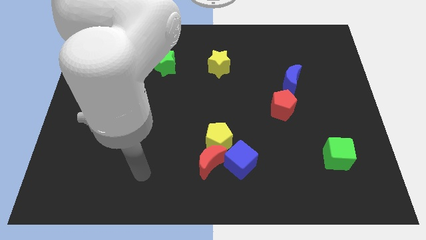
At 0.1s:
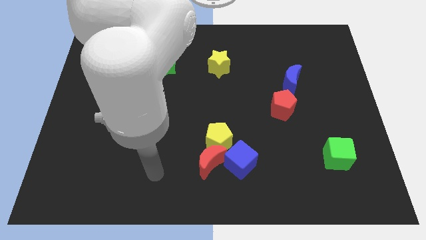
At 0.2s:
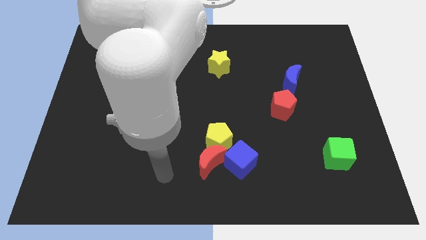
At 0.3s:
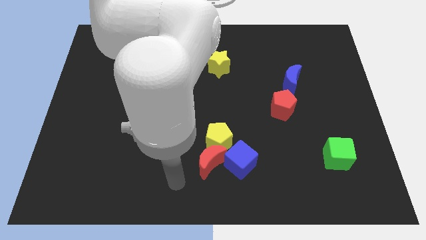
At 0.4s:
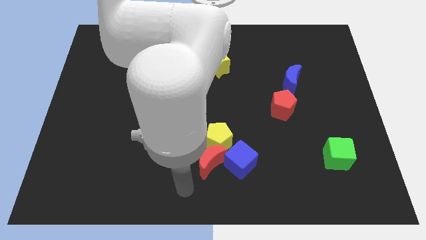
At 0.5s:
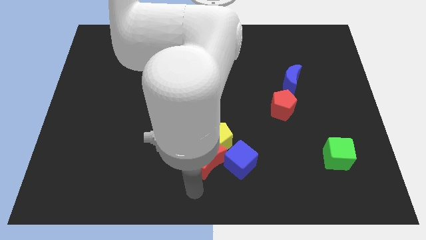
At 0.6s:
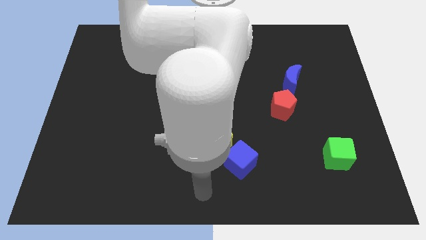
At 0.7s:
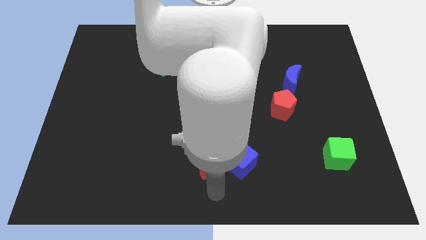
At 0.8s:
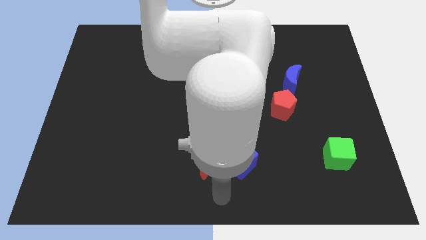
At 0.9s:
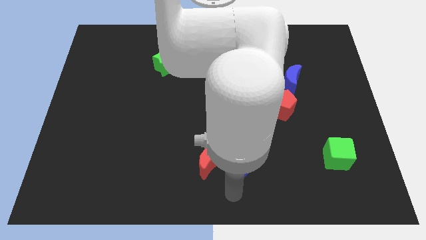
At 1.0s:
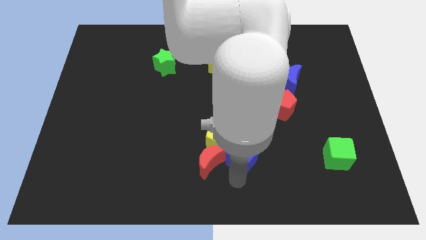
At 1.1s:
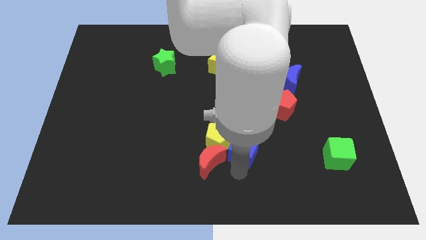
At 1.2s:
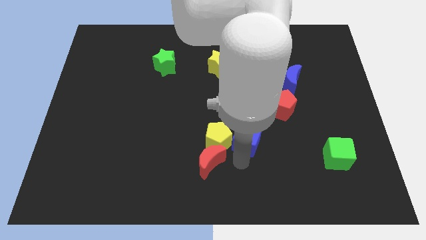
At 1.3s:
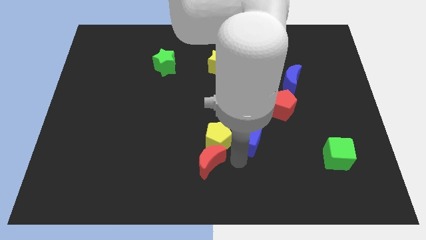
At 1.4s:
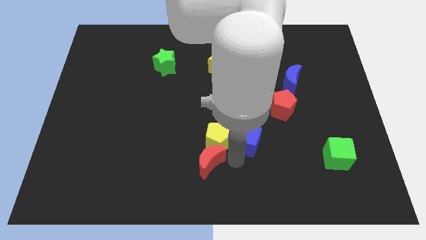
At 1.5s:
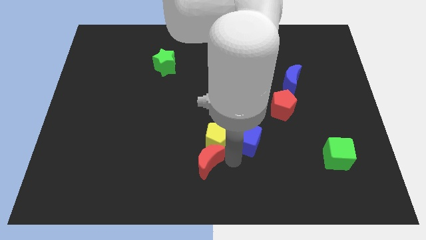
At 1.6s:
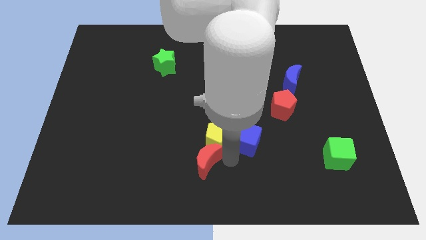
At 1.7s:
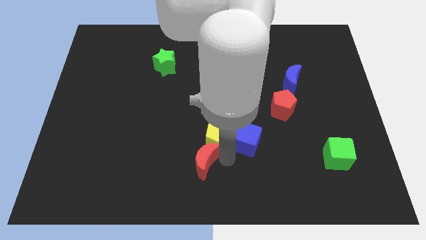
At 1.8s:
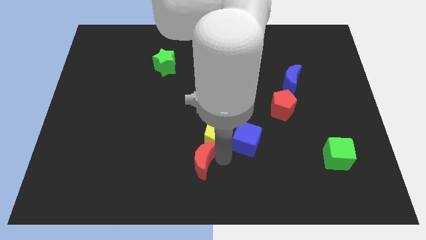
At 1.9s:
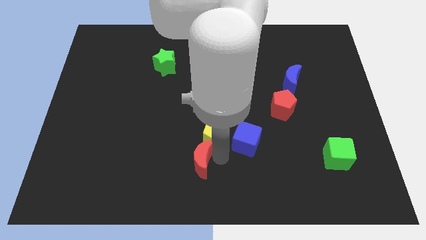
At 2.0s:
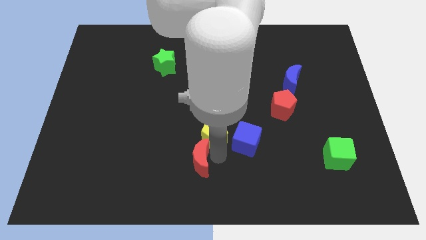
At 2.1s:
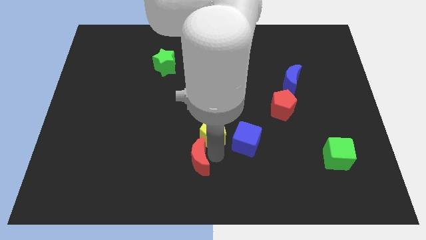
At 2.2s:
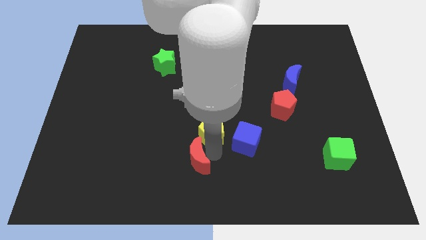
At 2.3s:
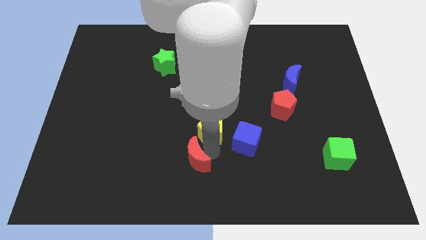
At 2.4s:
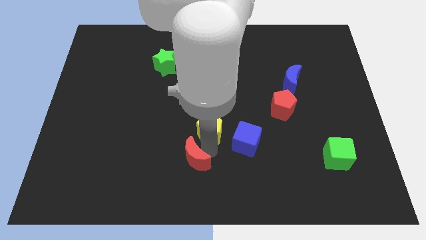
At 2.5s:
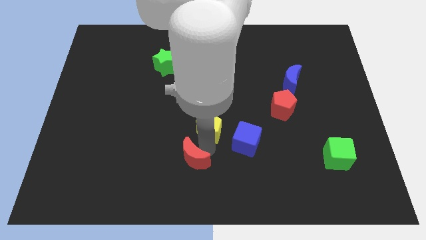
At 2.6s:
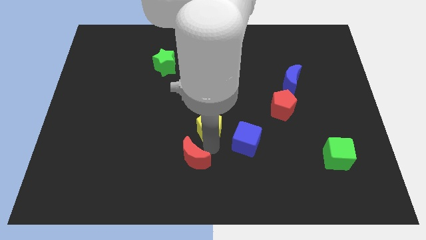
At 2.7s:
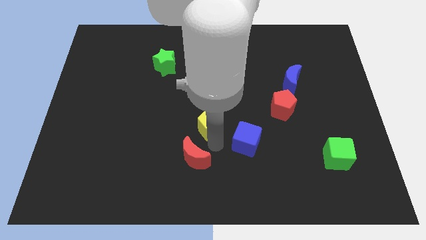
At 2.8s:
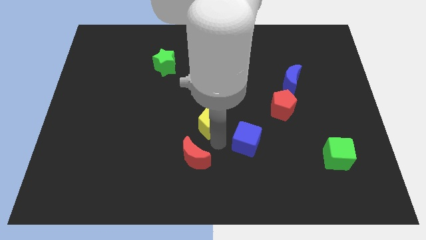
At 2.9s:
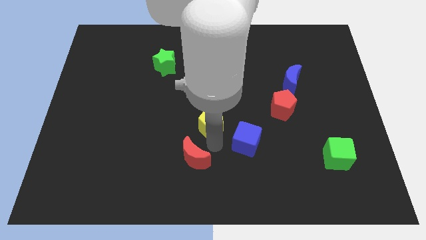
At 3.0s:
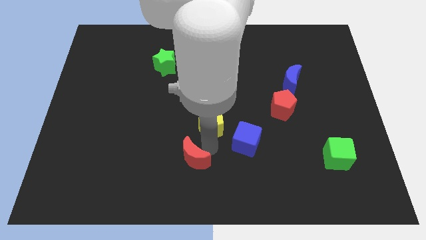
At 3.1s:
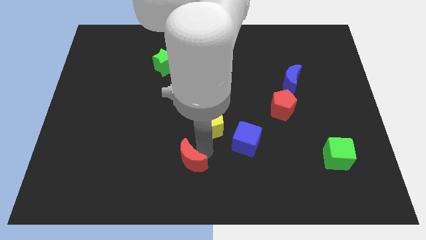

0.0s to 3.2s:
separate the red moon from the yellow pentagon and blue cube

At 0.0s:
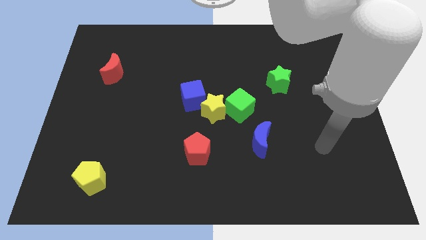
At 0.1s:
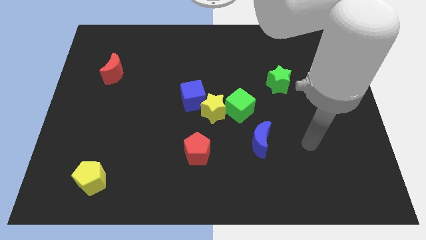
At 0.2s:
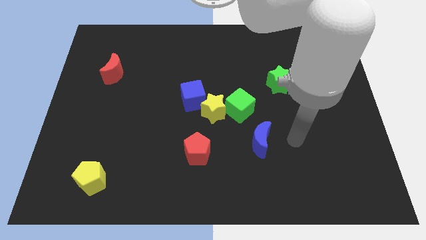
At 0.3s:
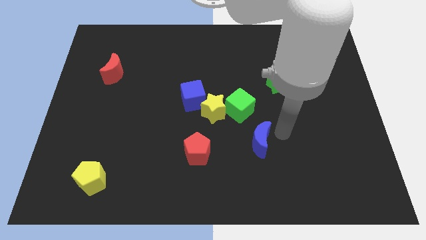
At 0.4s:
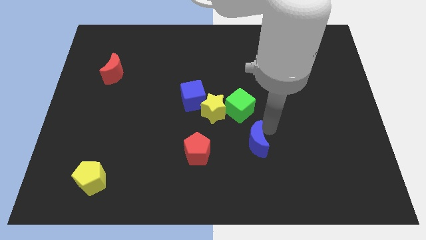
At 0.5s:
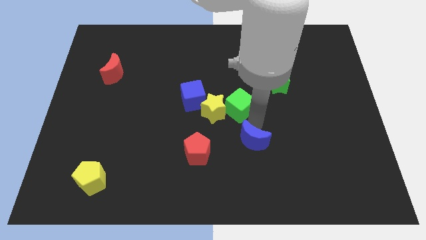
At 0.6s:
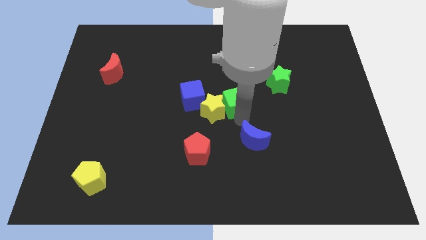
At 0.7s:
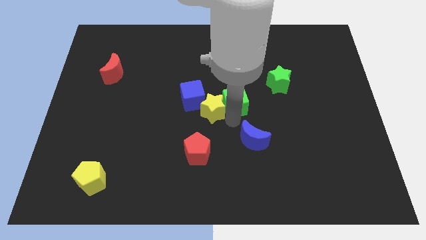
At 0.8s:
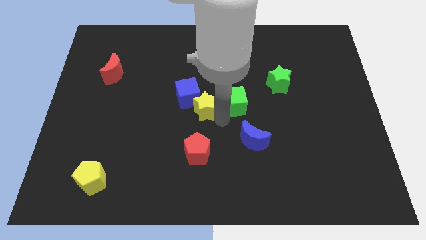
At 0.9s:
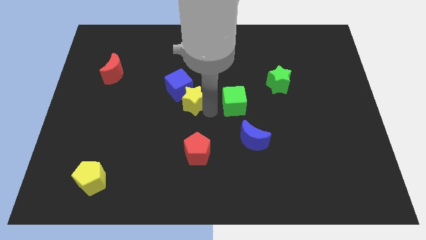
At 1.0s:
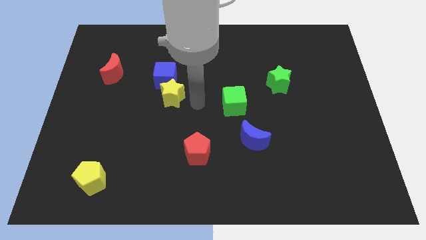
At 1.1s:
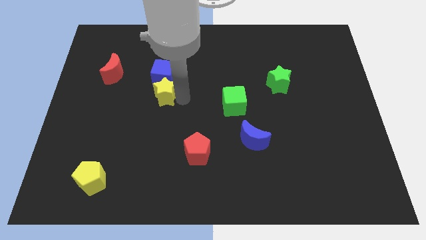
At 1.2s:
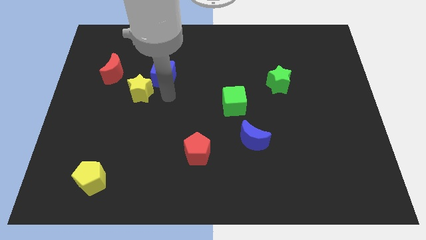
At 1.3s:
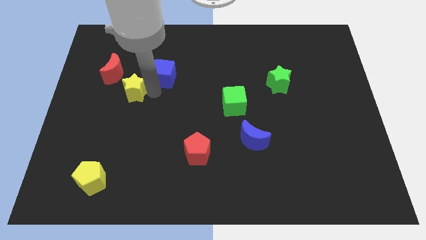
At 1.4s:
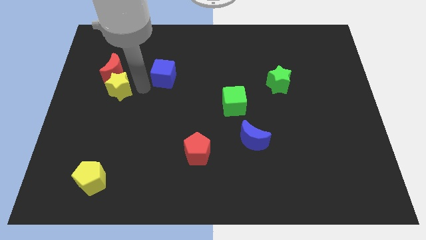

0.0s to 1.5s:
separate the blue cube from the yellow star

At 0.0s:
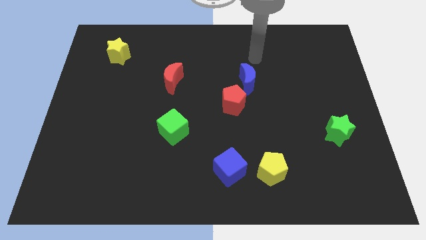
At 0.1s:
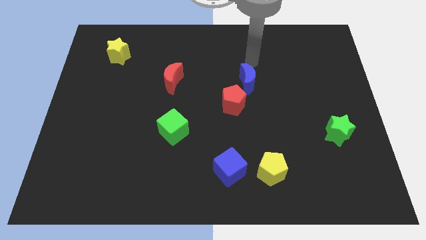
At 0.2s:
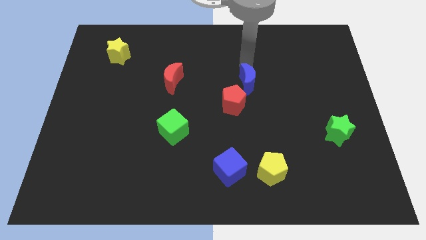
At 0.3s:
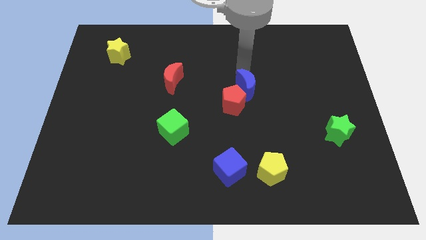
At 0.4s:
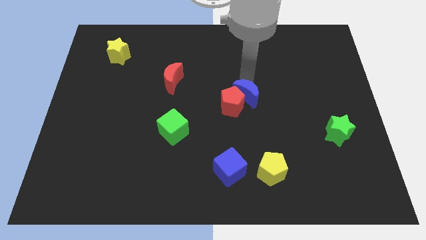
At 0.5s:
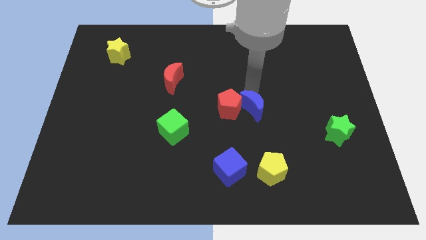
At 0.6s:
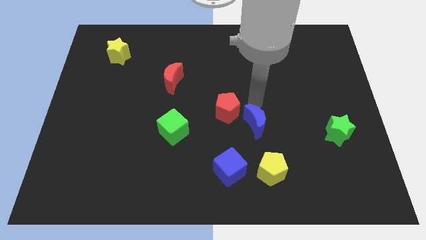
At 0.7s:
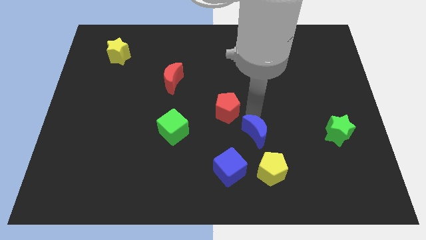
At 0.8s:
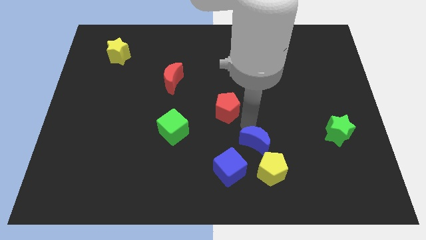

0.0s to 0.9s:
pull the red pentagon apart from the blue moon

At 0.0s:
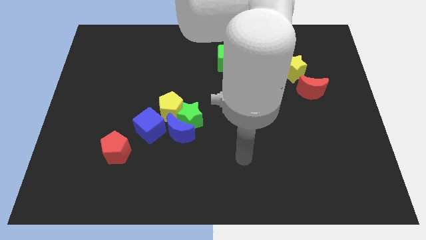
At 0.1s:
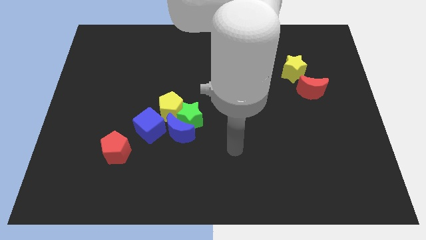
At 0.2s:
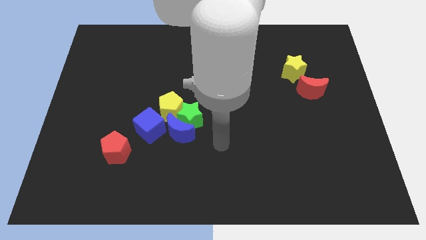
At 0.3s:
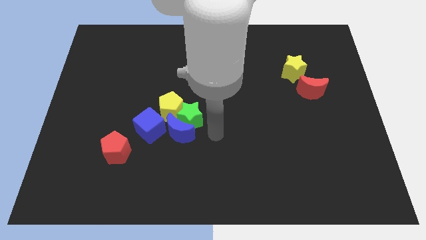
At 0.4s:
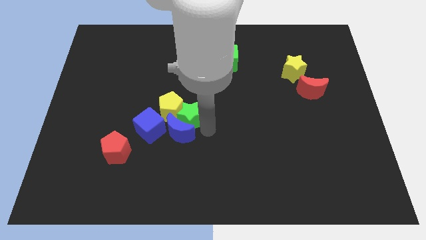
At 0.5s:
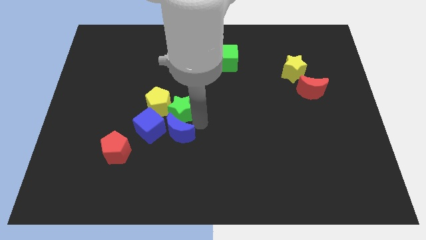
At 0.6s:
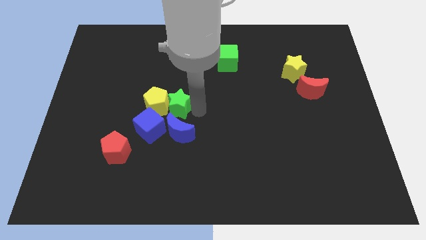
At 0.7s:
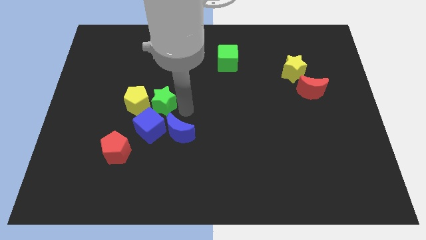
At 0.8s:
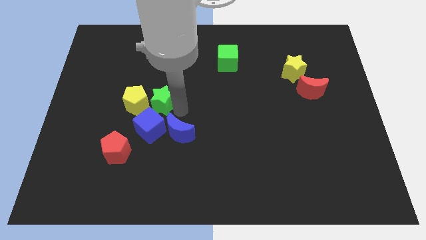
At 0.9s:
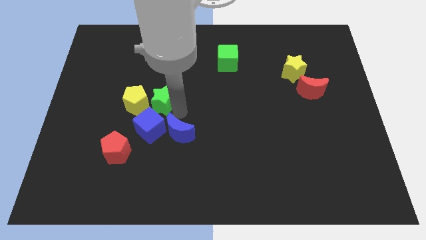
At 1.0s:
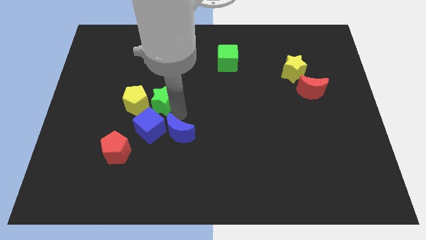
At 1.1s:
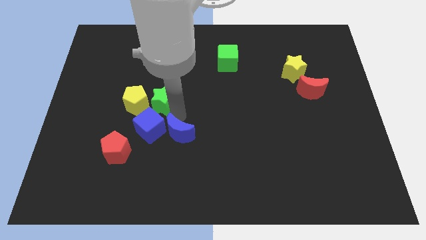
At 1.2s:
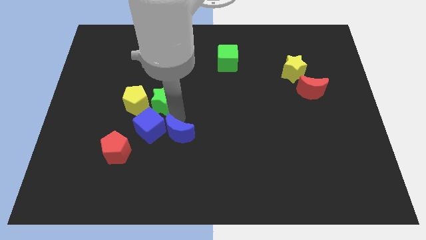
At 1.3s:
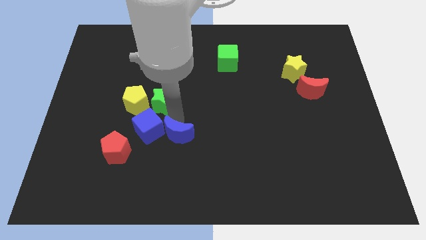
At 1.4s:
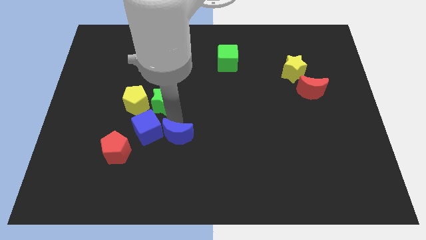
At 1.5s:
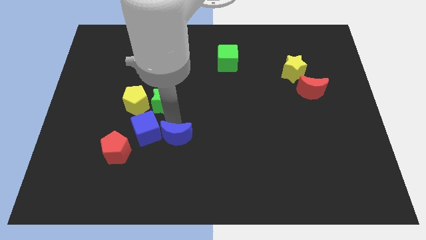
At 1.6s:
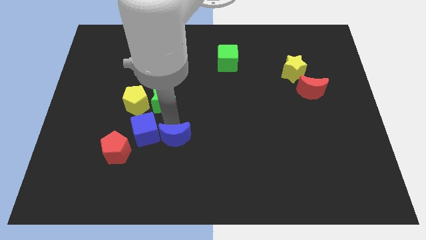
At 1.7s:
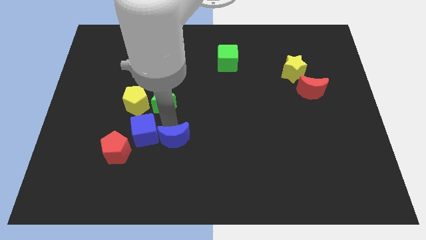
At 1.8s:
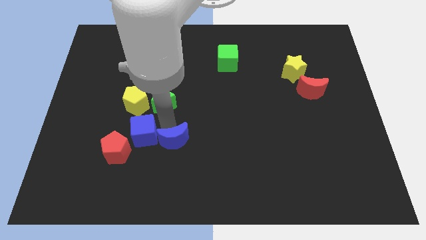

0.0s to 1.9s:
pull the blue moon apart from the group of blocks

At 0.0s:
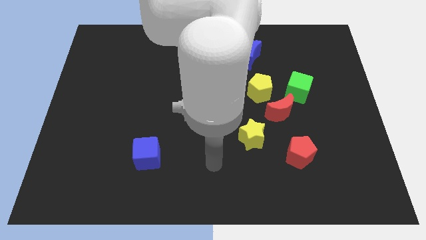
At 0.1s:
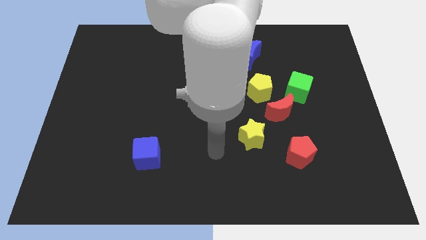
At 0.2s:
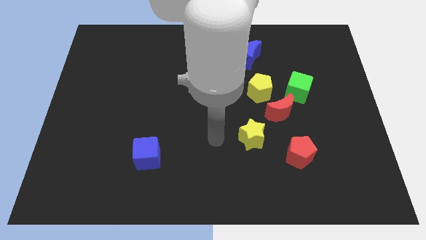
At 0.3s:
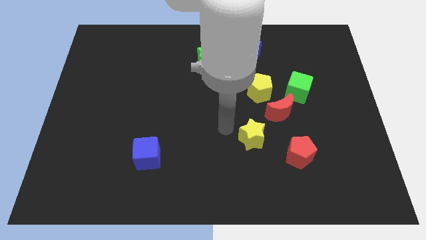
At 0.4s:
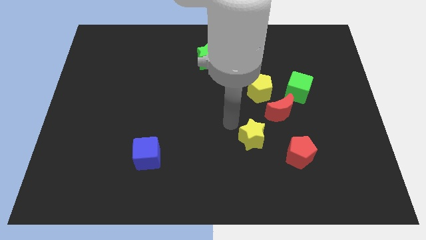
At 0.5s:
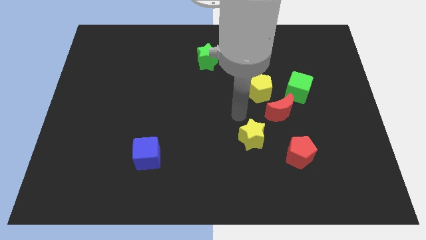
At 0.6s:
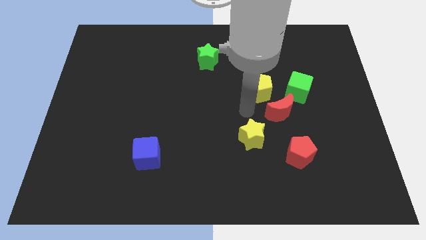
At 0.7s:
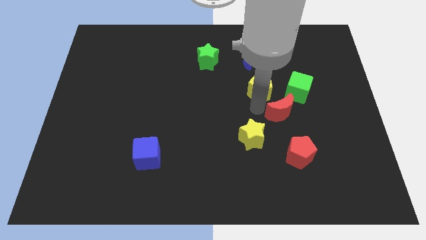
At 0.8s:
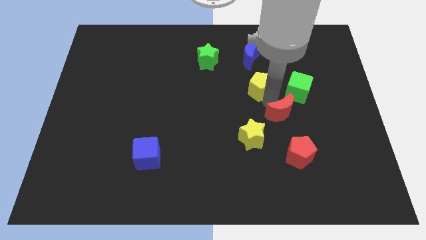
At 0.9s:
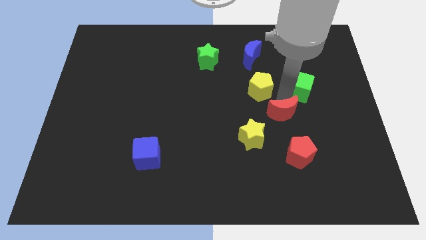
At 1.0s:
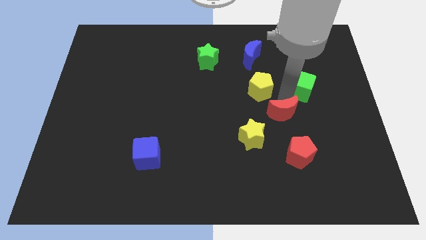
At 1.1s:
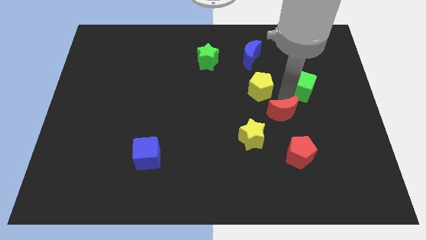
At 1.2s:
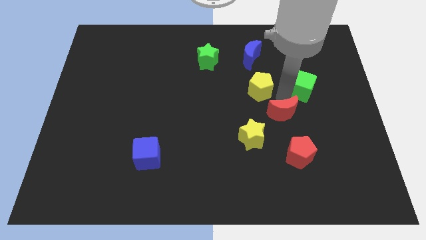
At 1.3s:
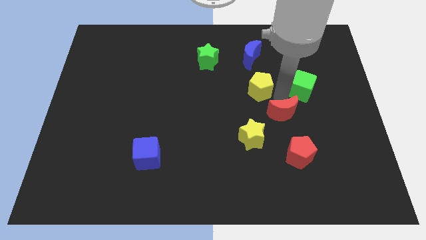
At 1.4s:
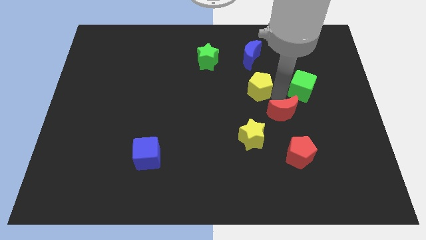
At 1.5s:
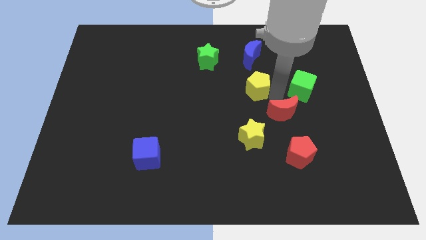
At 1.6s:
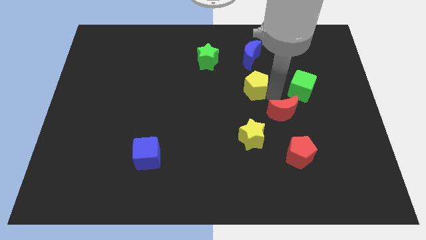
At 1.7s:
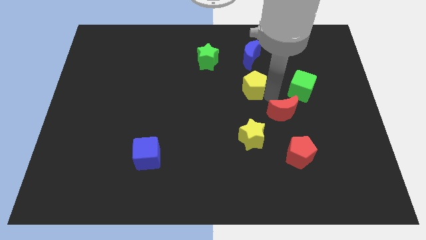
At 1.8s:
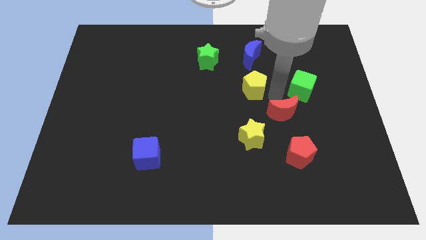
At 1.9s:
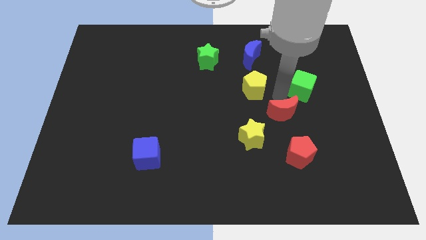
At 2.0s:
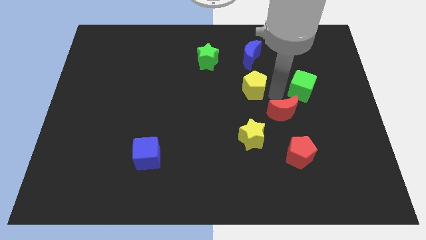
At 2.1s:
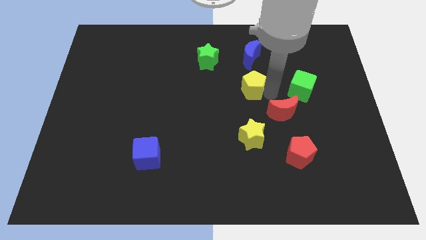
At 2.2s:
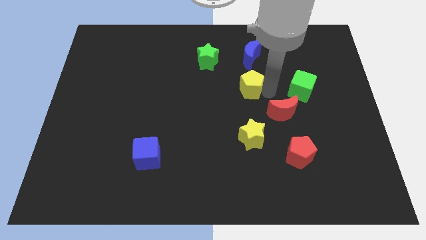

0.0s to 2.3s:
separate the yellow pentagon from the red moon and green cube
